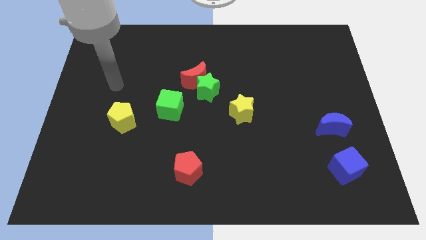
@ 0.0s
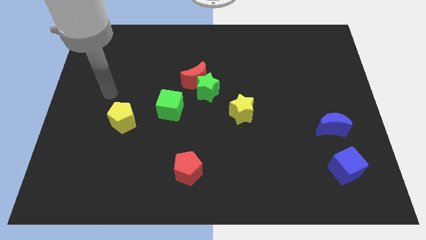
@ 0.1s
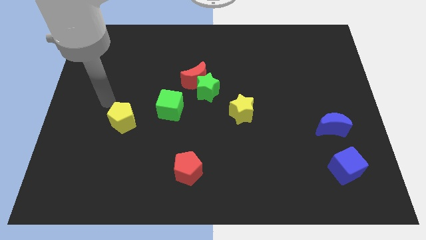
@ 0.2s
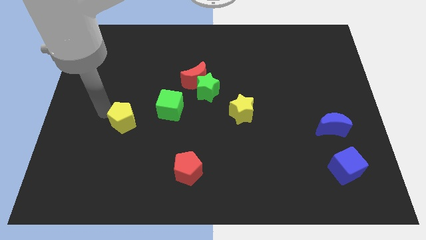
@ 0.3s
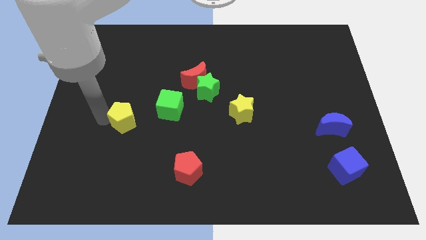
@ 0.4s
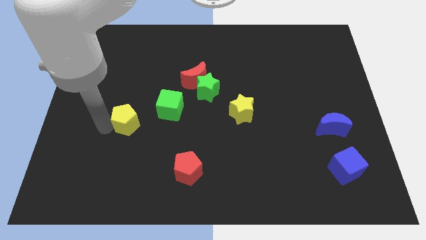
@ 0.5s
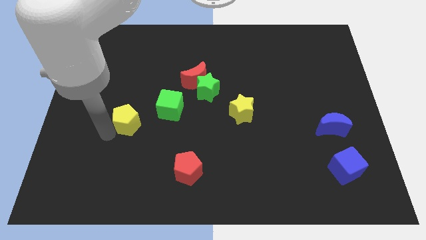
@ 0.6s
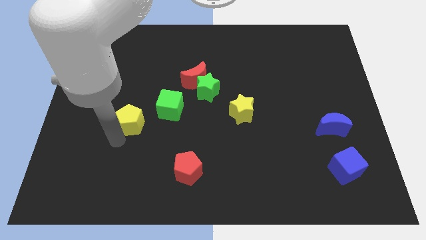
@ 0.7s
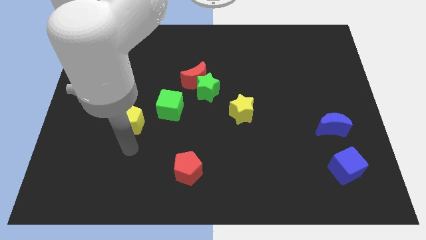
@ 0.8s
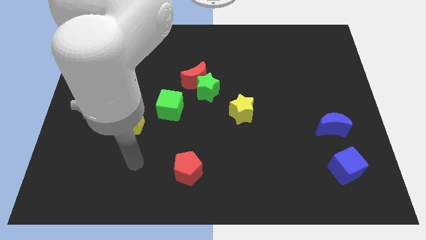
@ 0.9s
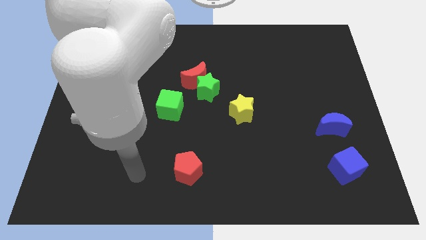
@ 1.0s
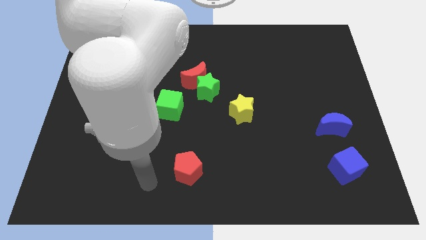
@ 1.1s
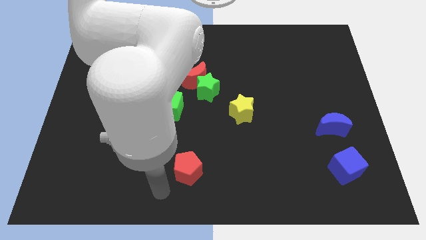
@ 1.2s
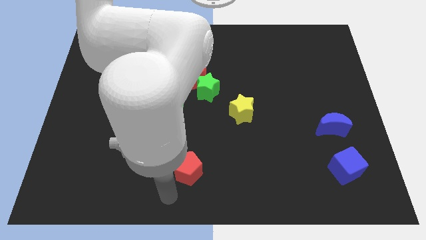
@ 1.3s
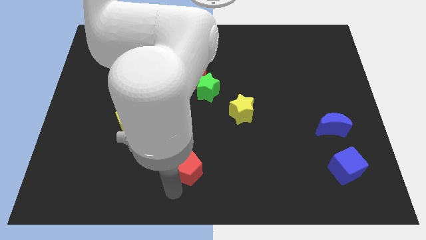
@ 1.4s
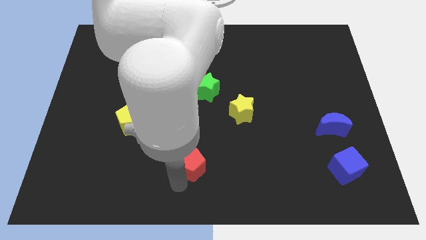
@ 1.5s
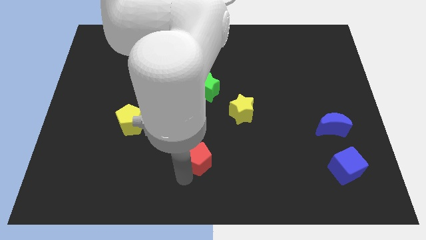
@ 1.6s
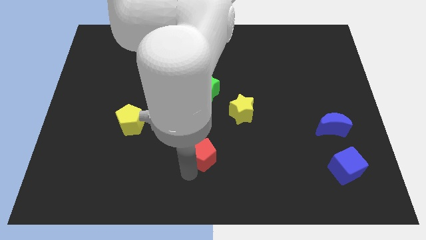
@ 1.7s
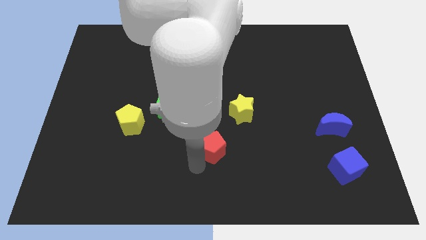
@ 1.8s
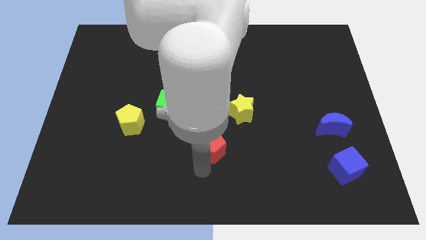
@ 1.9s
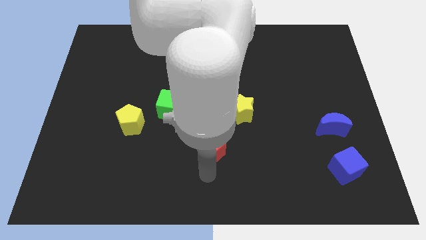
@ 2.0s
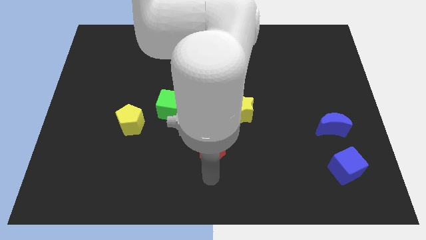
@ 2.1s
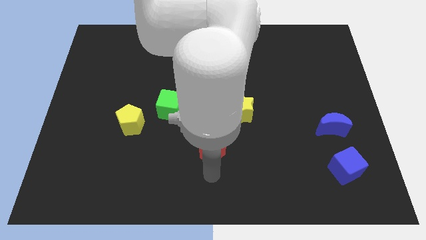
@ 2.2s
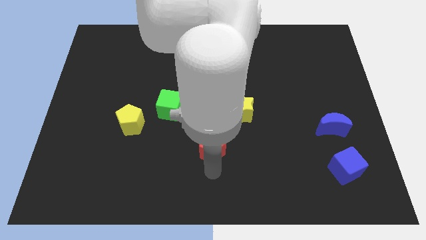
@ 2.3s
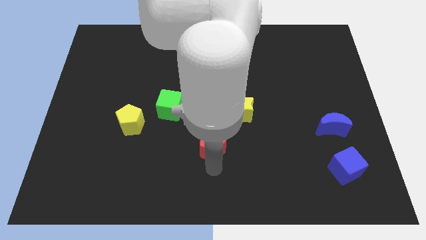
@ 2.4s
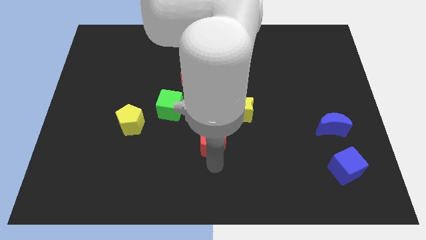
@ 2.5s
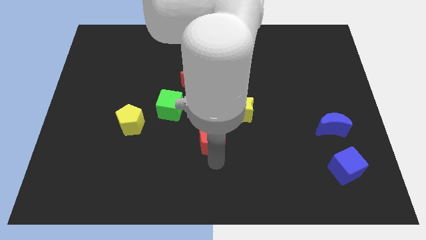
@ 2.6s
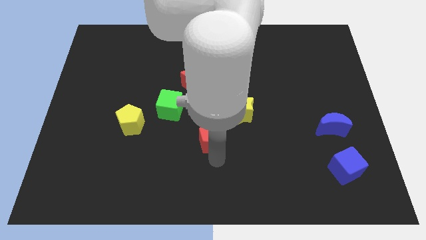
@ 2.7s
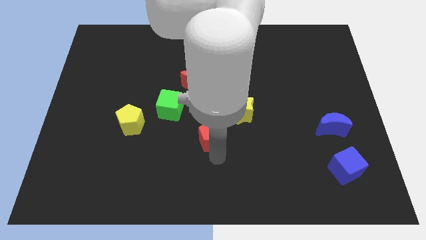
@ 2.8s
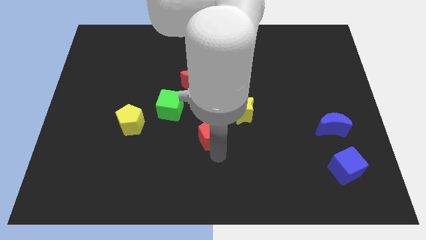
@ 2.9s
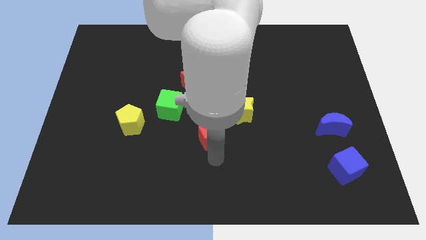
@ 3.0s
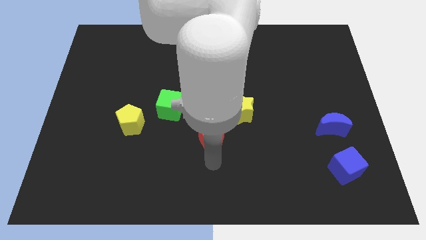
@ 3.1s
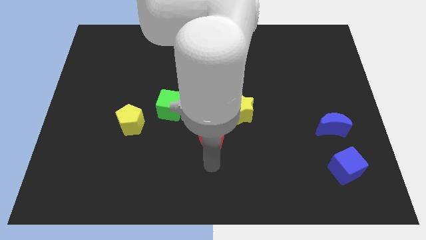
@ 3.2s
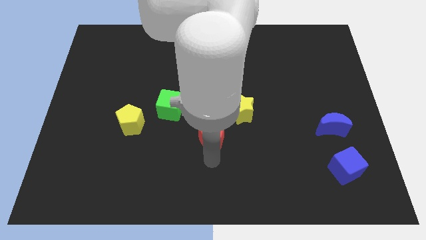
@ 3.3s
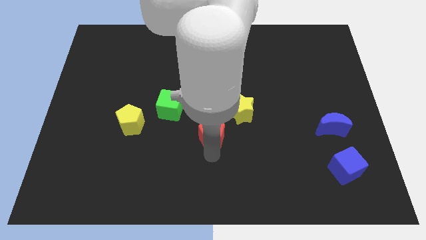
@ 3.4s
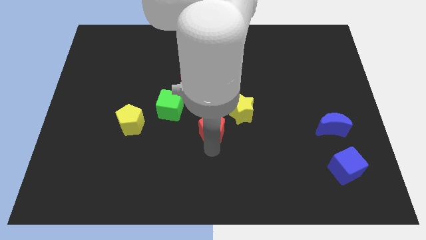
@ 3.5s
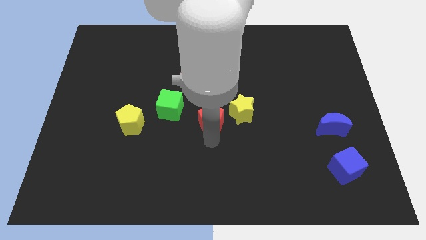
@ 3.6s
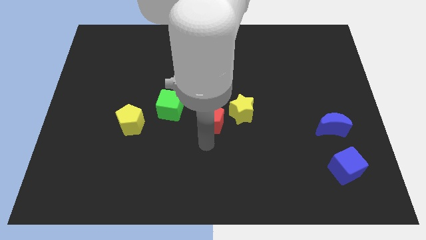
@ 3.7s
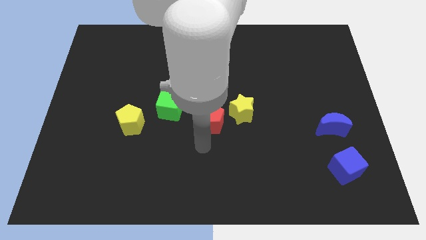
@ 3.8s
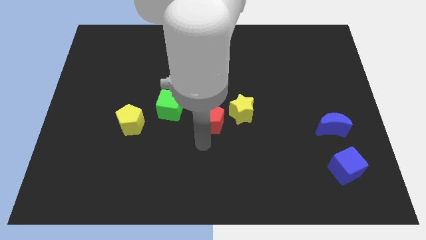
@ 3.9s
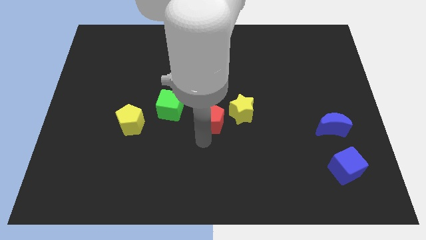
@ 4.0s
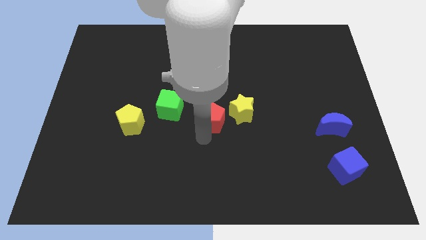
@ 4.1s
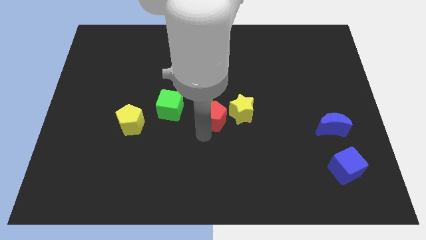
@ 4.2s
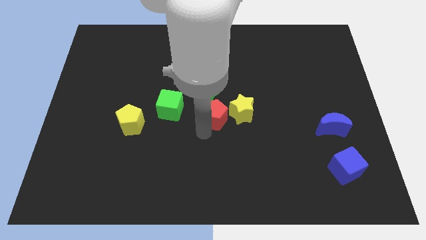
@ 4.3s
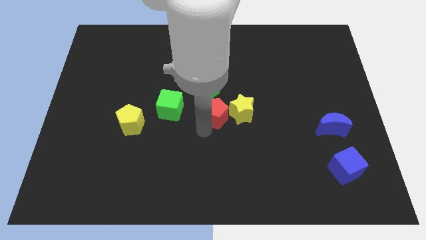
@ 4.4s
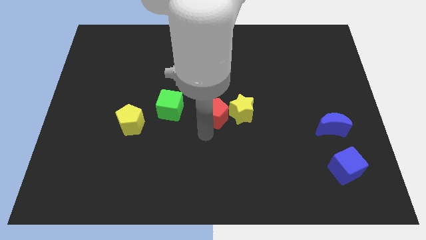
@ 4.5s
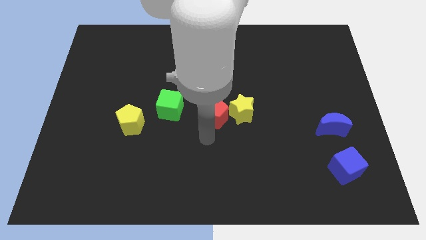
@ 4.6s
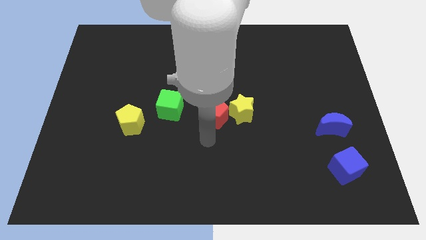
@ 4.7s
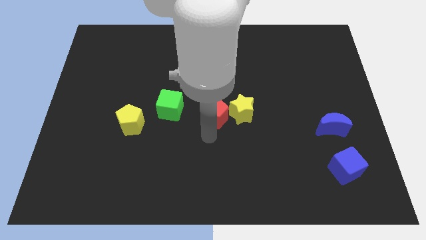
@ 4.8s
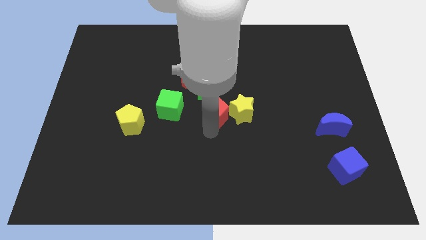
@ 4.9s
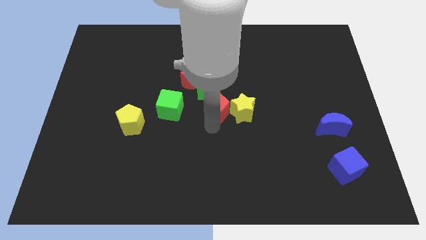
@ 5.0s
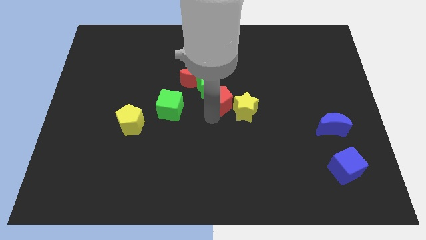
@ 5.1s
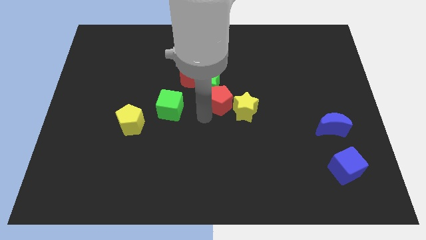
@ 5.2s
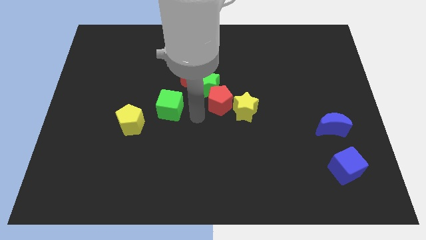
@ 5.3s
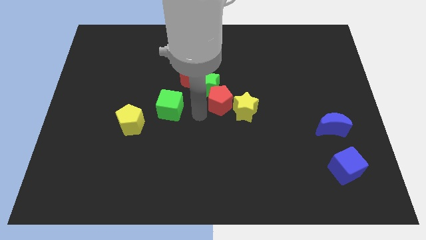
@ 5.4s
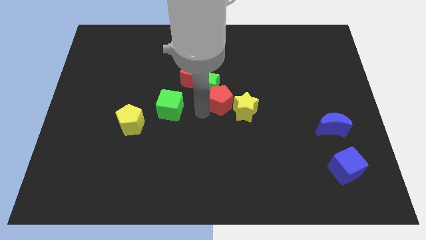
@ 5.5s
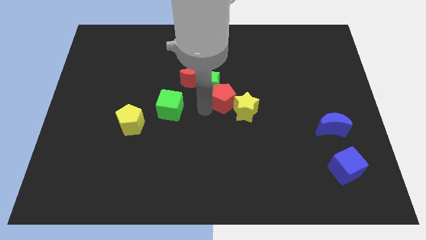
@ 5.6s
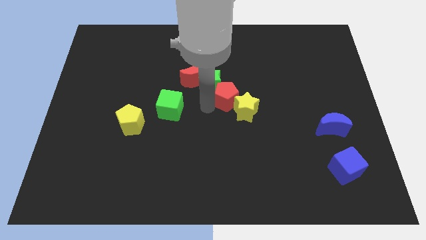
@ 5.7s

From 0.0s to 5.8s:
push the red pentagon just right of the green star

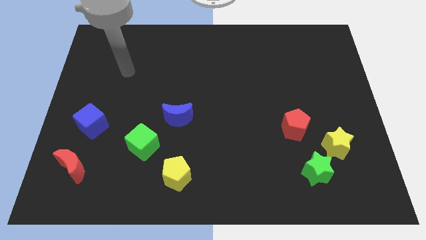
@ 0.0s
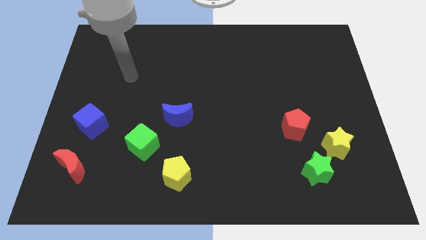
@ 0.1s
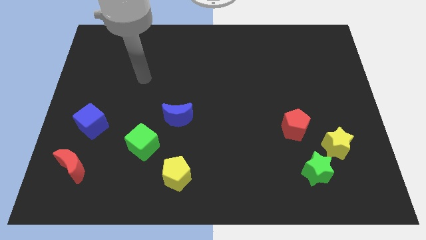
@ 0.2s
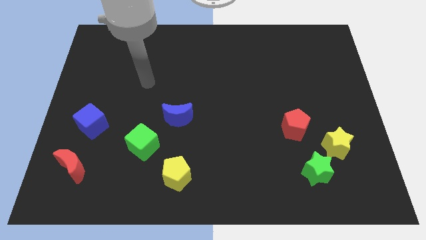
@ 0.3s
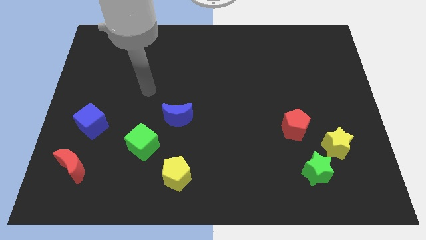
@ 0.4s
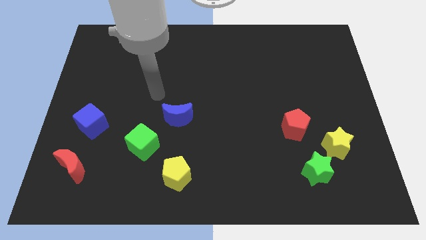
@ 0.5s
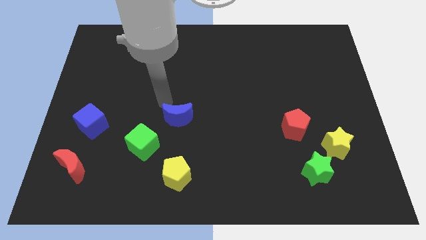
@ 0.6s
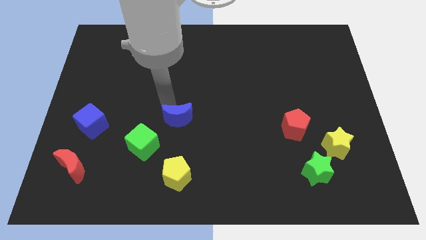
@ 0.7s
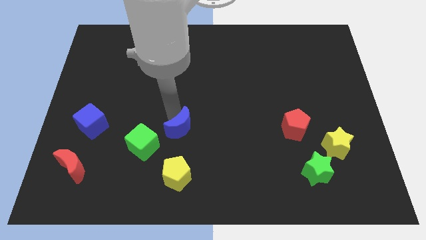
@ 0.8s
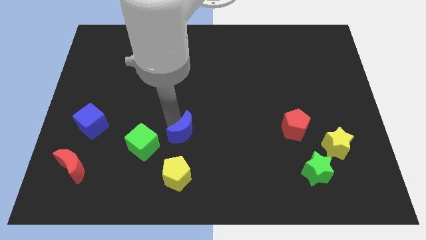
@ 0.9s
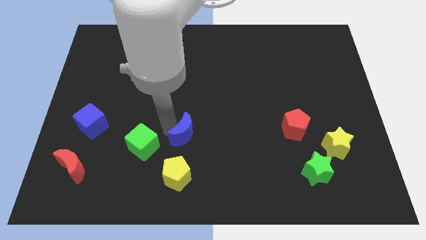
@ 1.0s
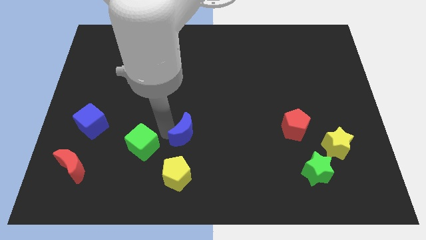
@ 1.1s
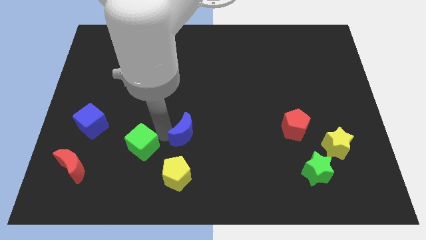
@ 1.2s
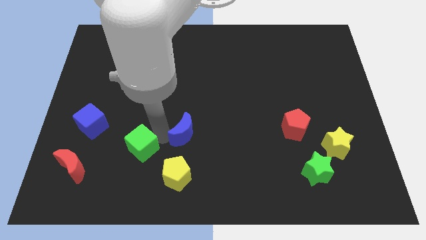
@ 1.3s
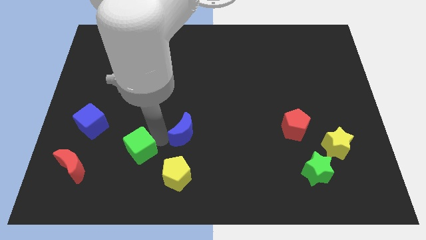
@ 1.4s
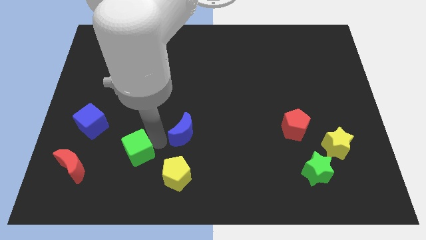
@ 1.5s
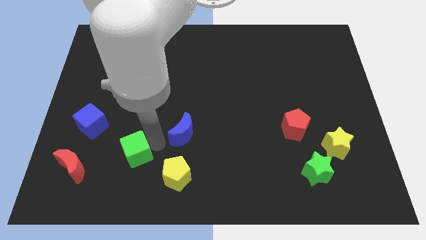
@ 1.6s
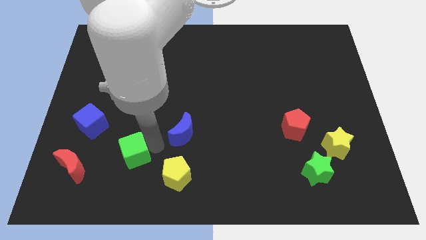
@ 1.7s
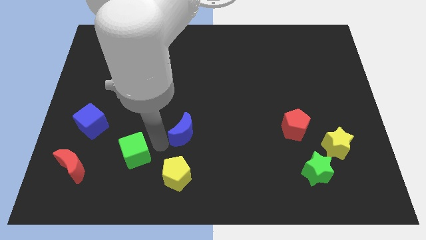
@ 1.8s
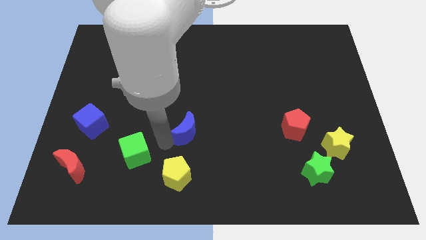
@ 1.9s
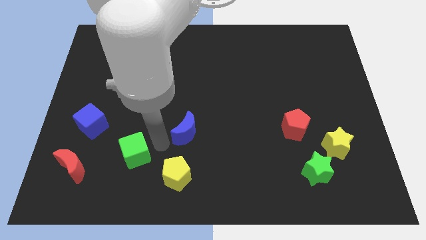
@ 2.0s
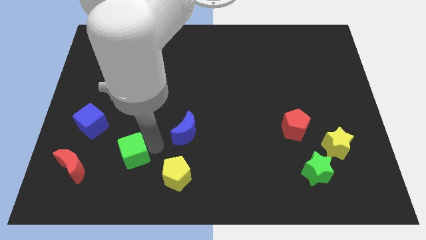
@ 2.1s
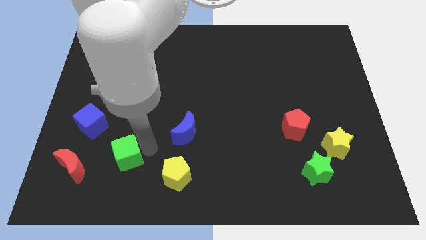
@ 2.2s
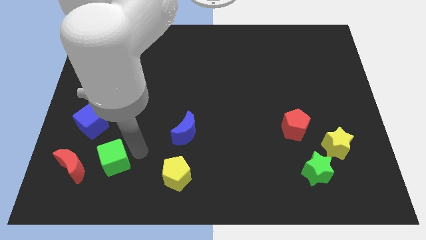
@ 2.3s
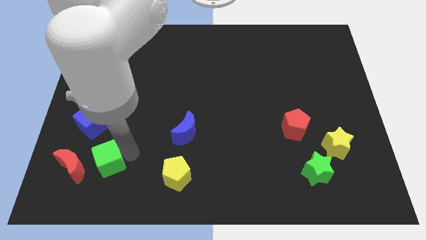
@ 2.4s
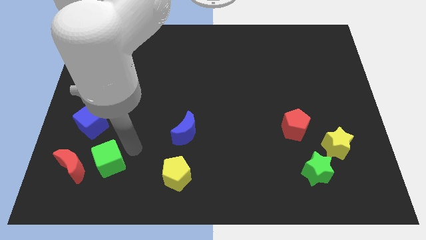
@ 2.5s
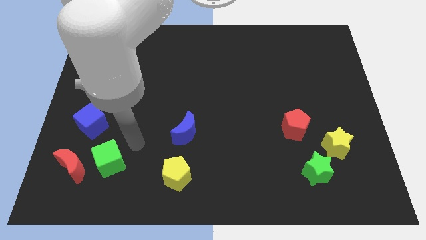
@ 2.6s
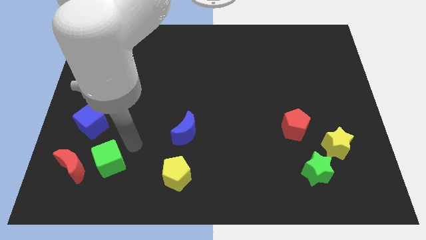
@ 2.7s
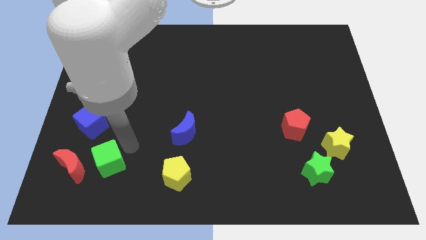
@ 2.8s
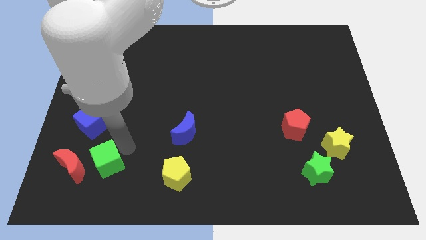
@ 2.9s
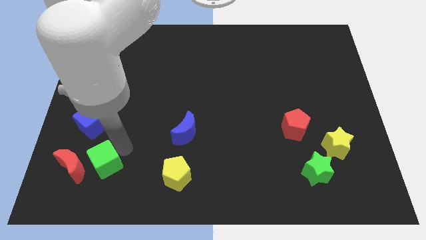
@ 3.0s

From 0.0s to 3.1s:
move the green cube to the bottom side of the blue cube
